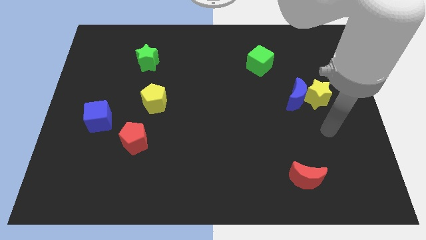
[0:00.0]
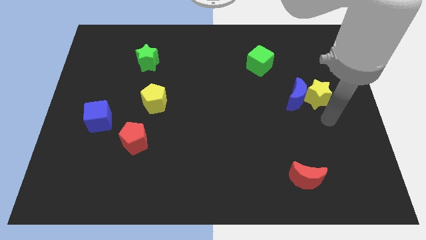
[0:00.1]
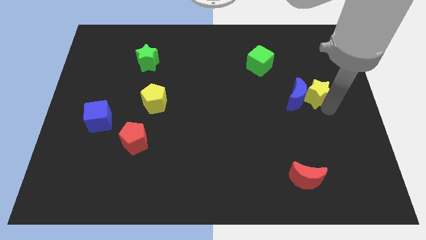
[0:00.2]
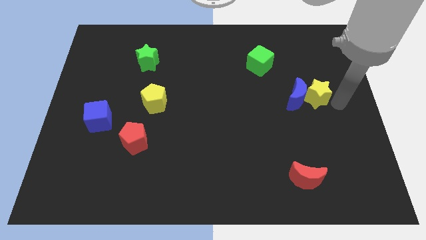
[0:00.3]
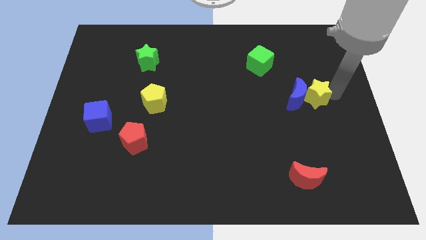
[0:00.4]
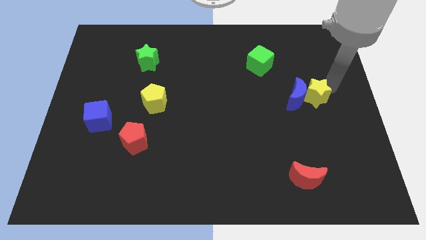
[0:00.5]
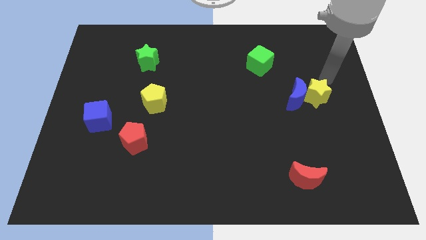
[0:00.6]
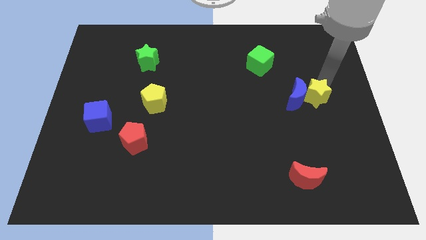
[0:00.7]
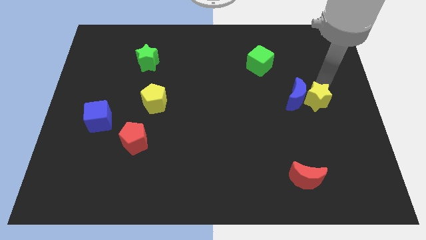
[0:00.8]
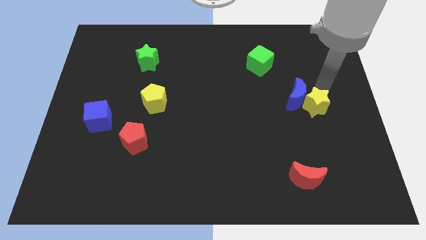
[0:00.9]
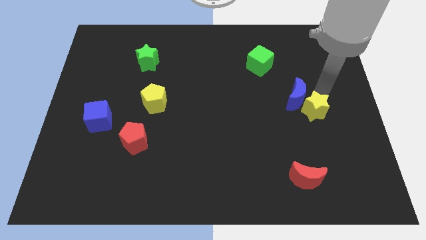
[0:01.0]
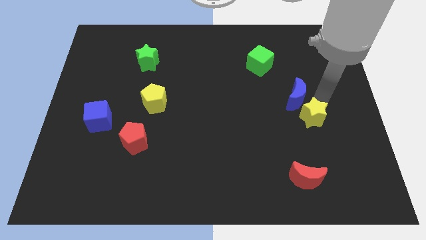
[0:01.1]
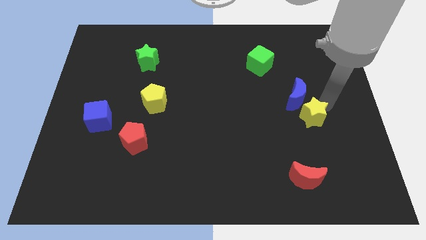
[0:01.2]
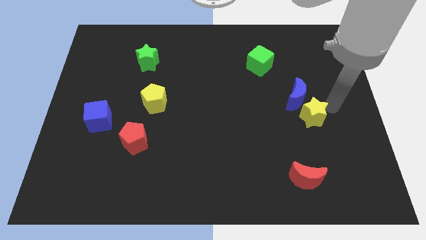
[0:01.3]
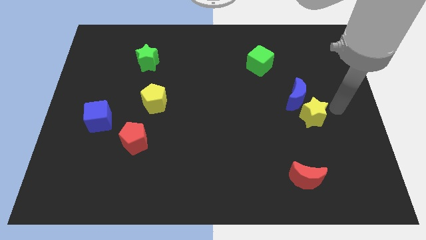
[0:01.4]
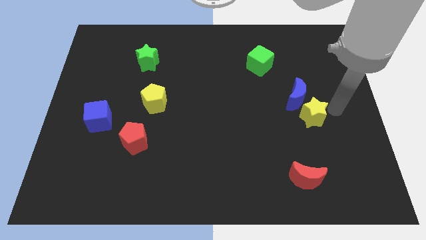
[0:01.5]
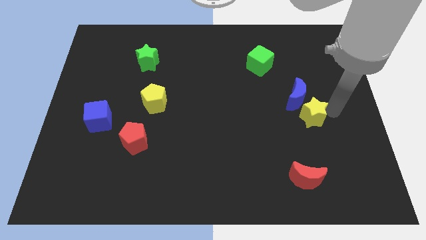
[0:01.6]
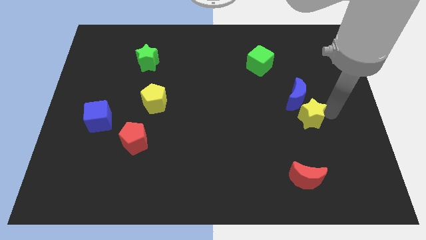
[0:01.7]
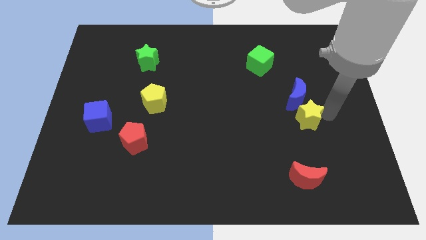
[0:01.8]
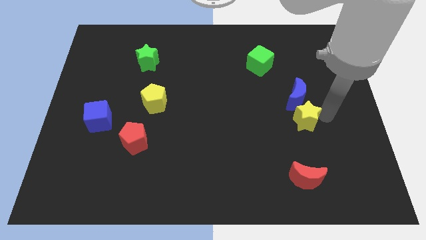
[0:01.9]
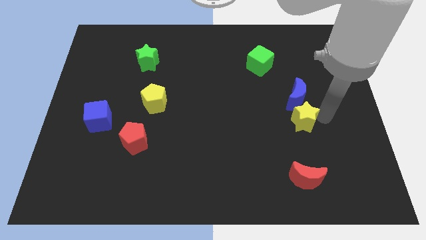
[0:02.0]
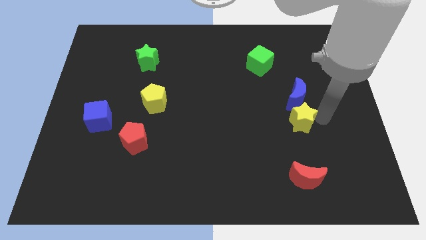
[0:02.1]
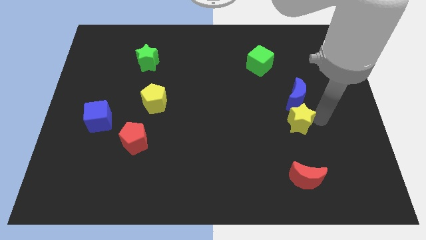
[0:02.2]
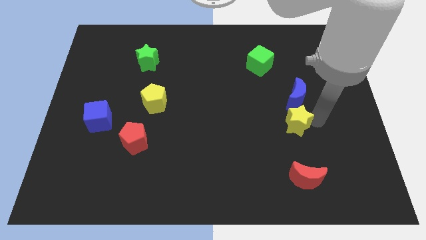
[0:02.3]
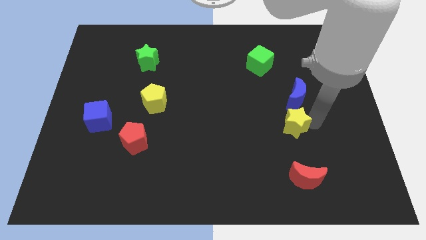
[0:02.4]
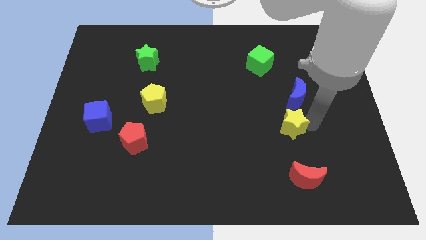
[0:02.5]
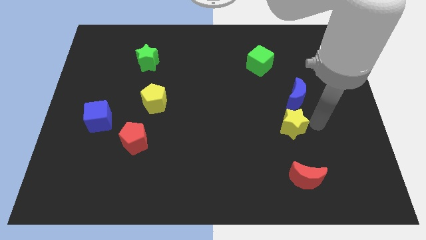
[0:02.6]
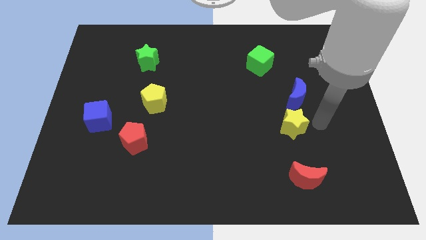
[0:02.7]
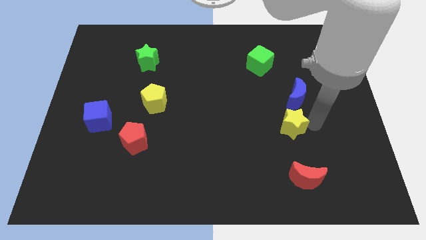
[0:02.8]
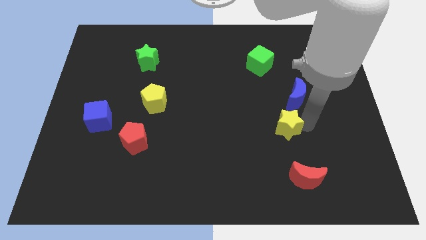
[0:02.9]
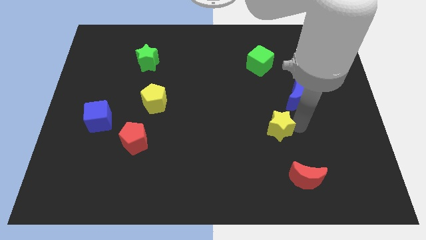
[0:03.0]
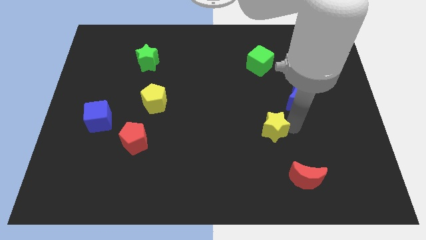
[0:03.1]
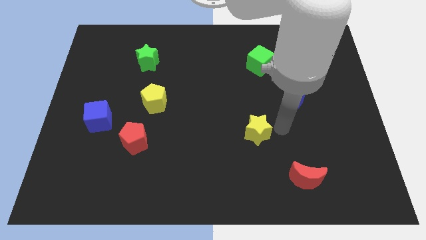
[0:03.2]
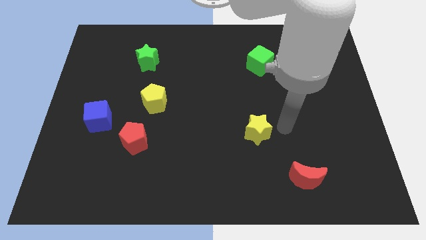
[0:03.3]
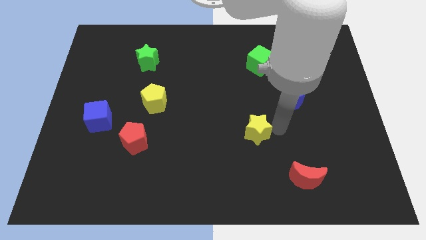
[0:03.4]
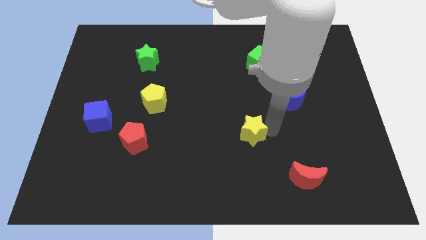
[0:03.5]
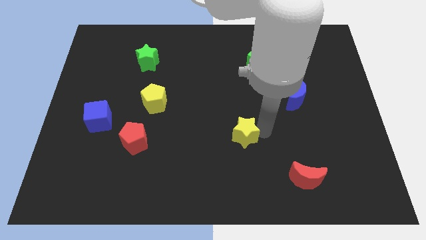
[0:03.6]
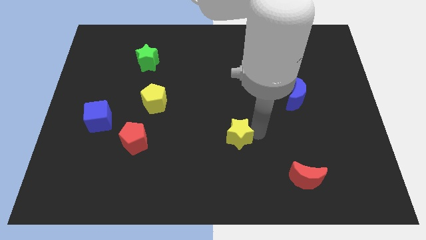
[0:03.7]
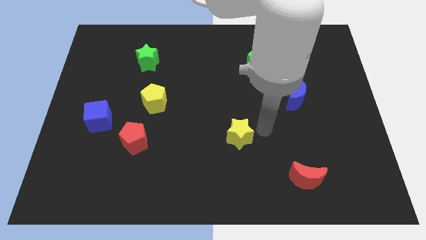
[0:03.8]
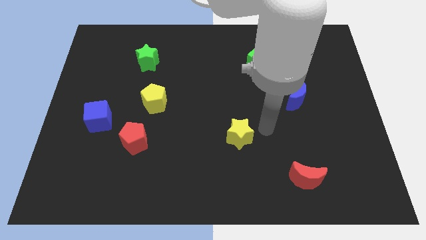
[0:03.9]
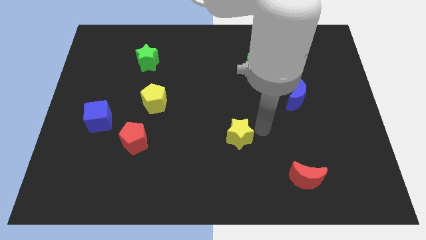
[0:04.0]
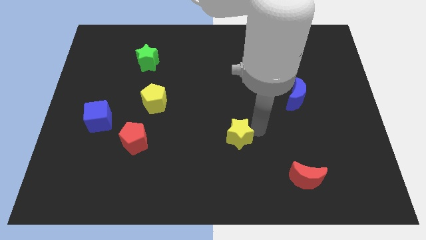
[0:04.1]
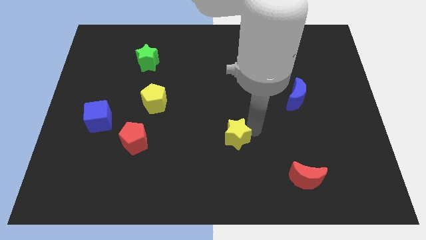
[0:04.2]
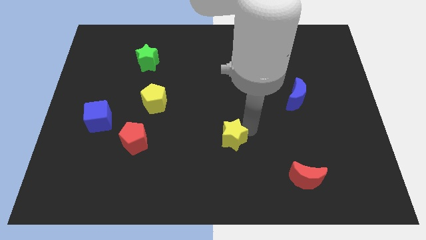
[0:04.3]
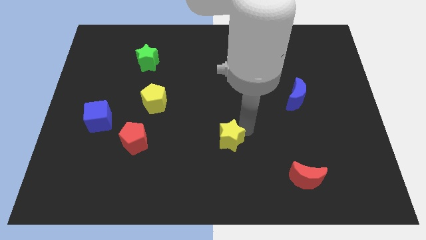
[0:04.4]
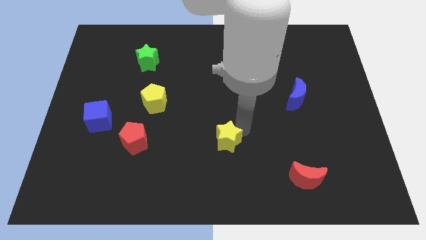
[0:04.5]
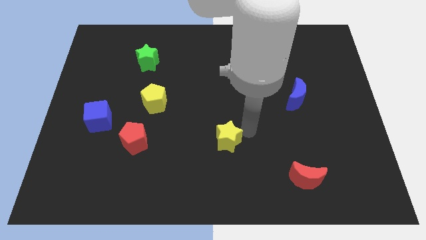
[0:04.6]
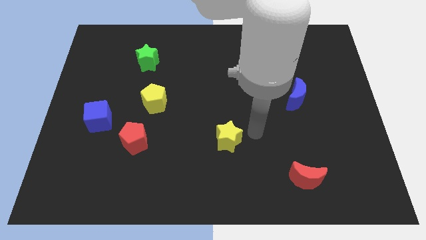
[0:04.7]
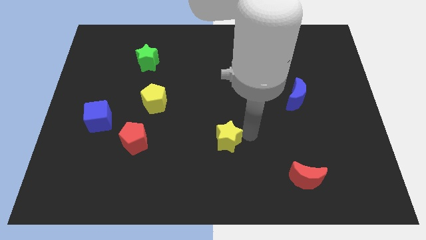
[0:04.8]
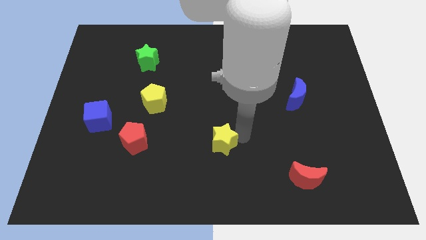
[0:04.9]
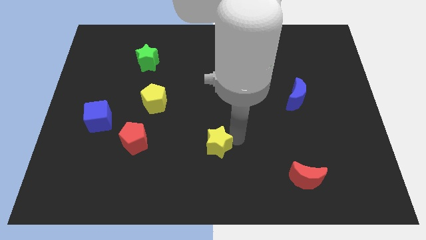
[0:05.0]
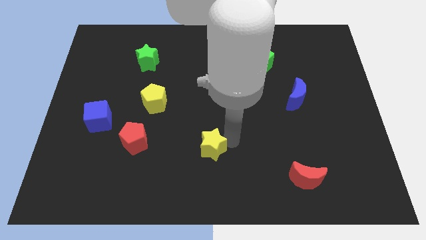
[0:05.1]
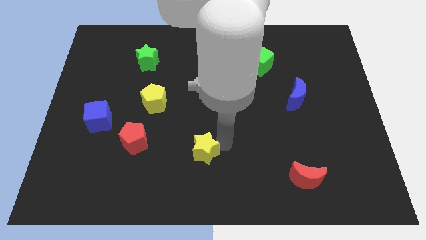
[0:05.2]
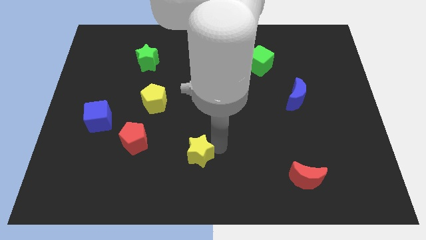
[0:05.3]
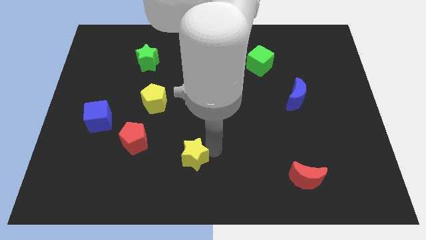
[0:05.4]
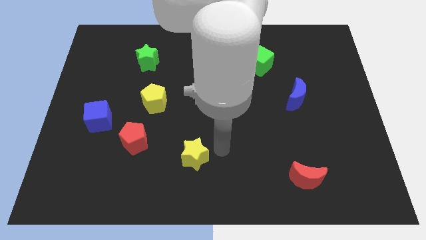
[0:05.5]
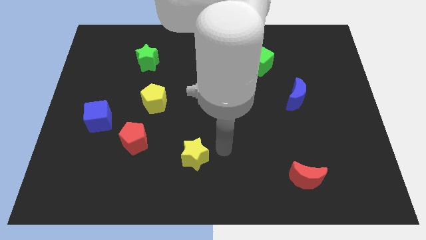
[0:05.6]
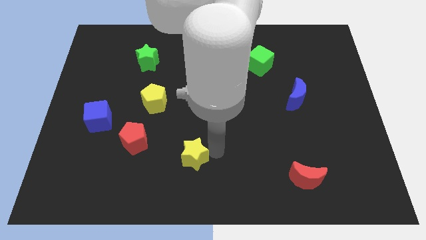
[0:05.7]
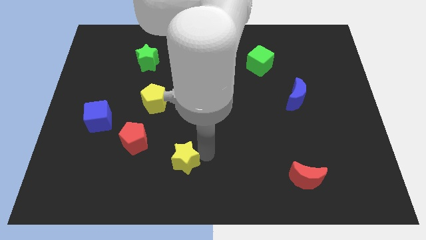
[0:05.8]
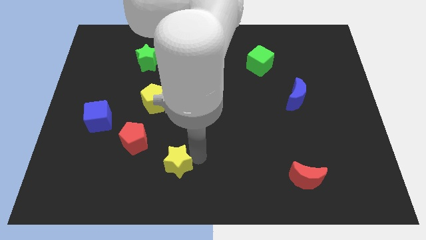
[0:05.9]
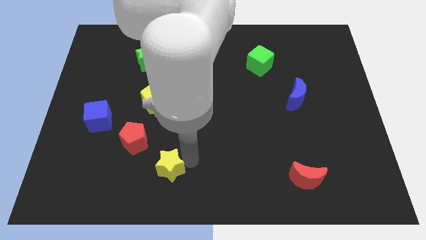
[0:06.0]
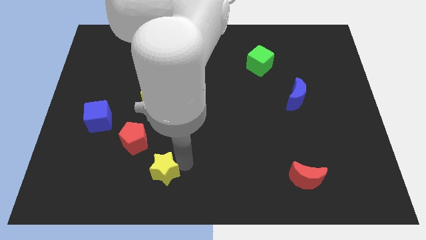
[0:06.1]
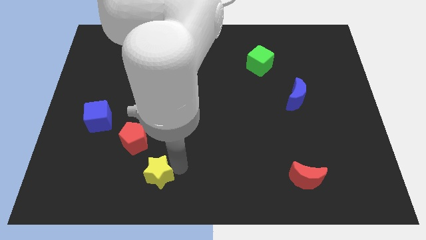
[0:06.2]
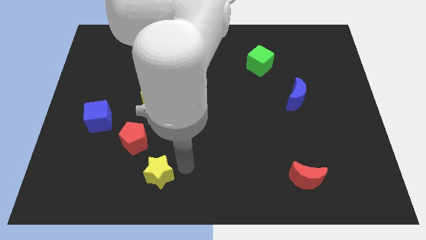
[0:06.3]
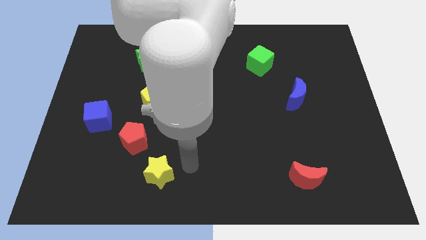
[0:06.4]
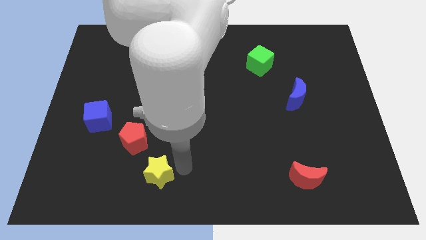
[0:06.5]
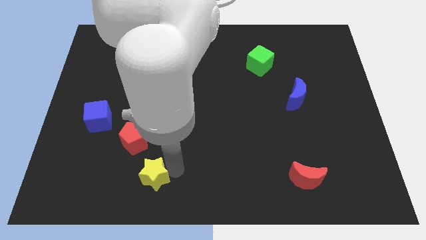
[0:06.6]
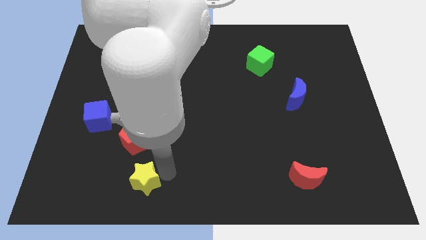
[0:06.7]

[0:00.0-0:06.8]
move the yellow star below the red pentagon

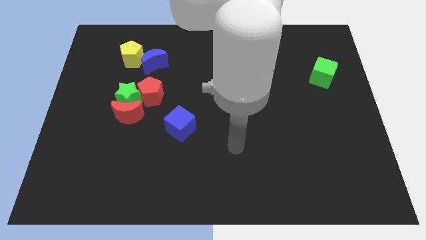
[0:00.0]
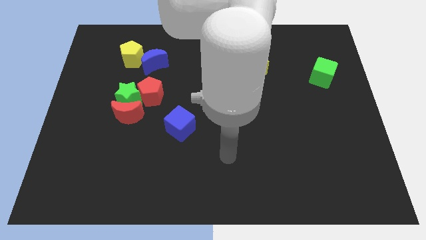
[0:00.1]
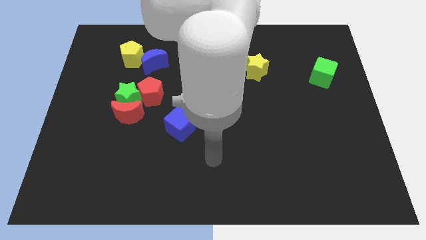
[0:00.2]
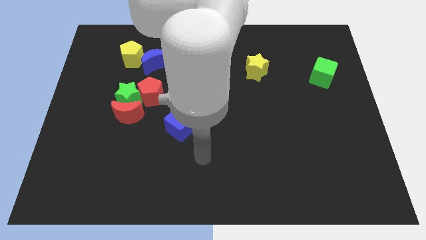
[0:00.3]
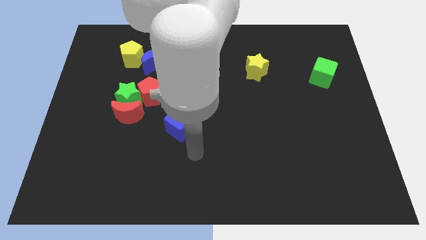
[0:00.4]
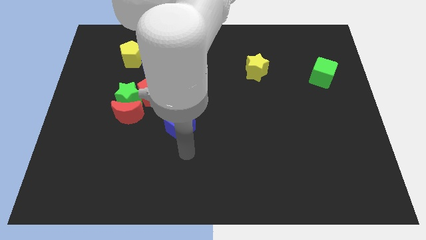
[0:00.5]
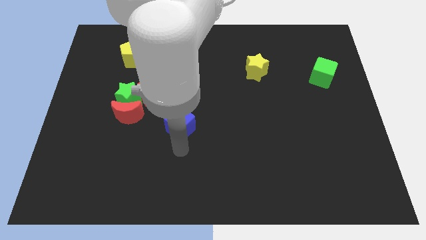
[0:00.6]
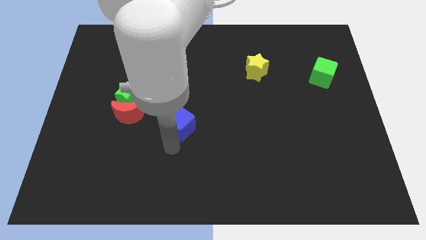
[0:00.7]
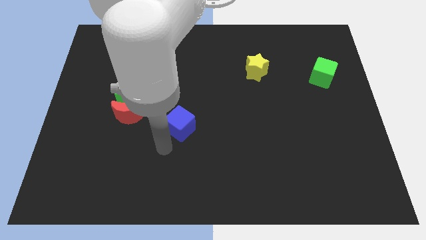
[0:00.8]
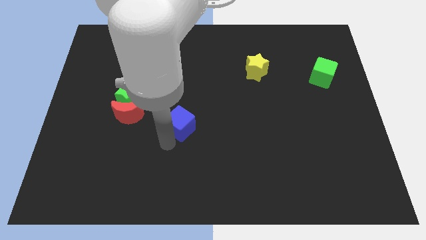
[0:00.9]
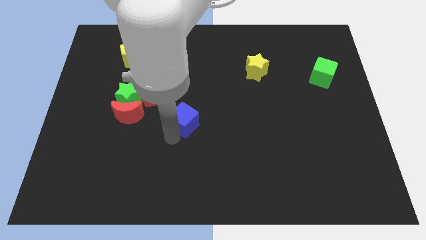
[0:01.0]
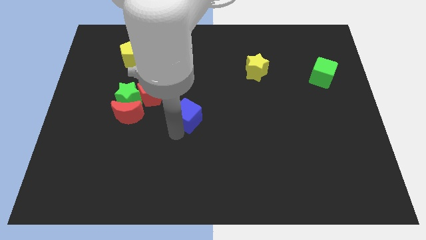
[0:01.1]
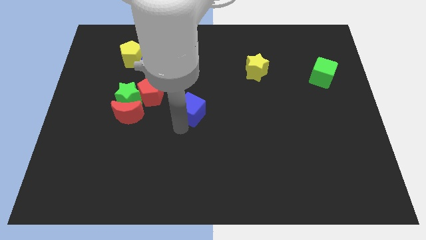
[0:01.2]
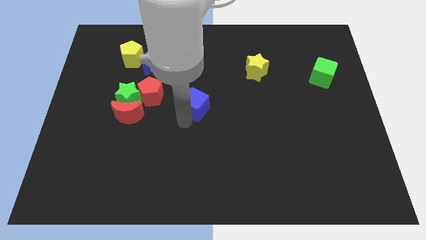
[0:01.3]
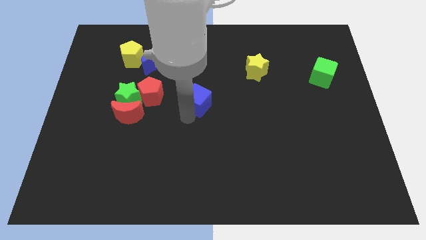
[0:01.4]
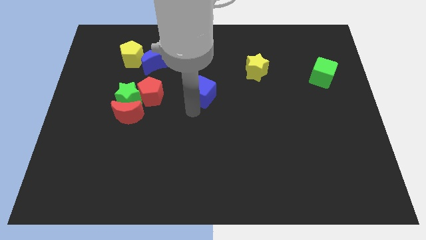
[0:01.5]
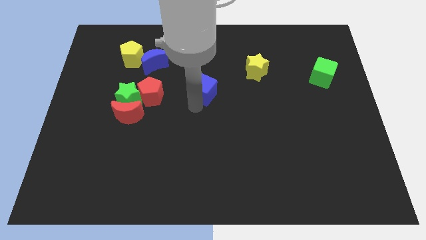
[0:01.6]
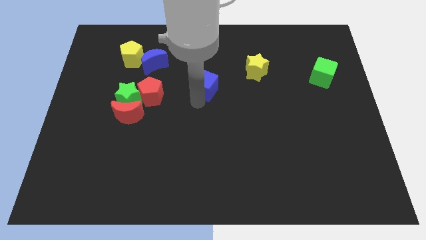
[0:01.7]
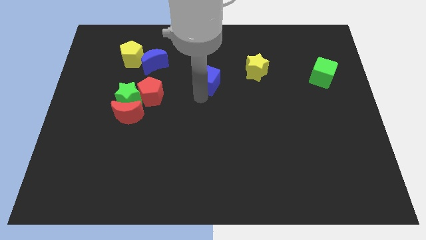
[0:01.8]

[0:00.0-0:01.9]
put the blue cube just left of the yellow star
